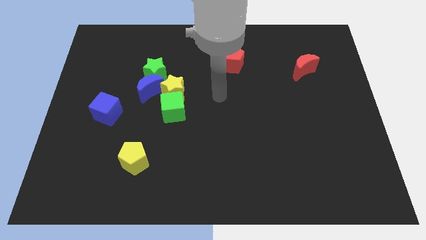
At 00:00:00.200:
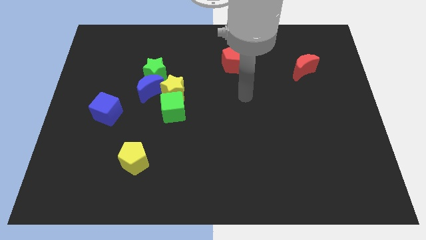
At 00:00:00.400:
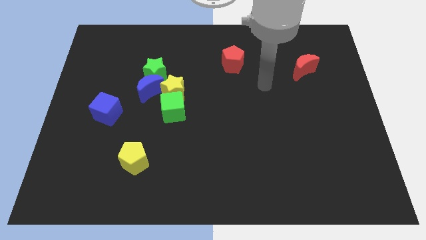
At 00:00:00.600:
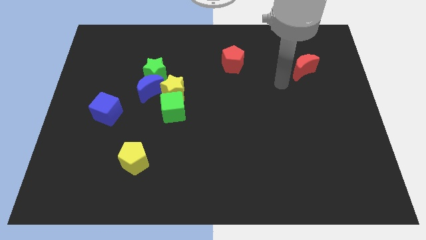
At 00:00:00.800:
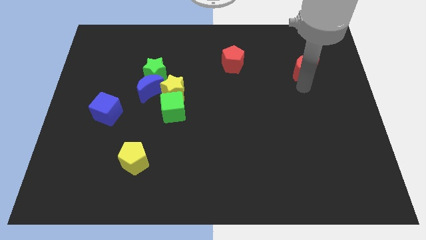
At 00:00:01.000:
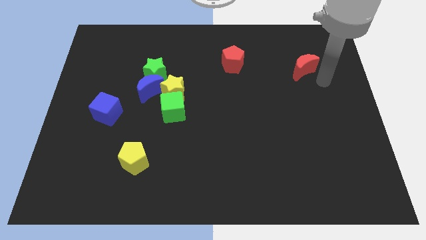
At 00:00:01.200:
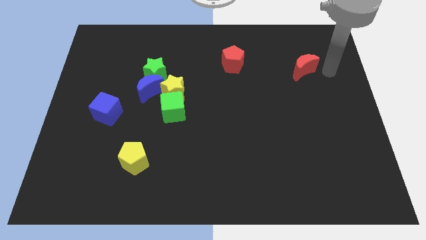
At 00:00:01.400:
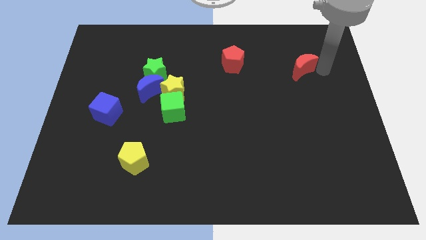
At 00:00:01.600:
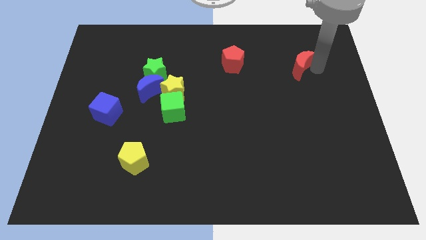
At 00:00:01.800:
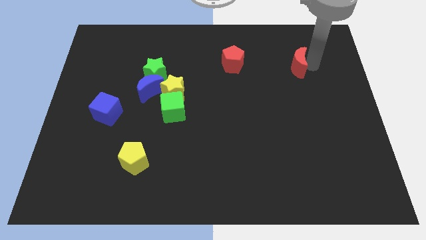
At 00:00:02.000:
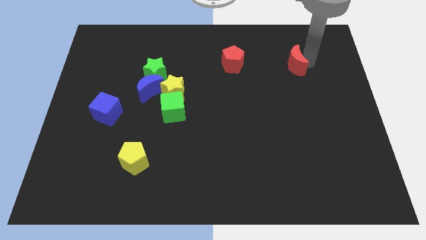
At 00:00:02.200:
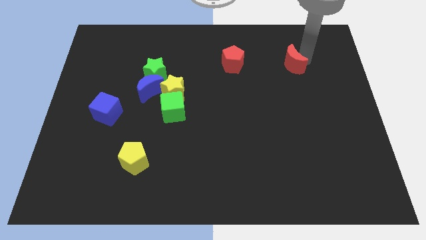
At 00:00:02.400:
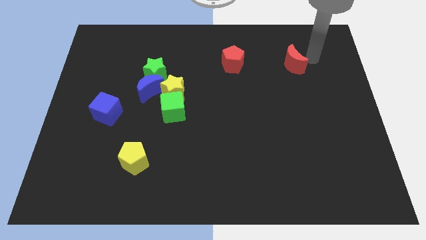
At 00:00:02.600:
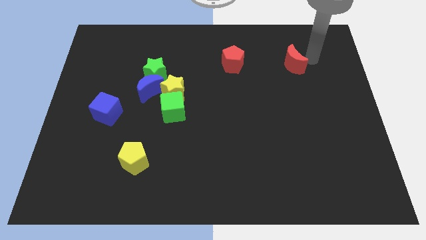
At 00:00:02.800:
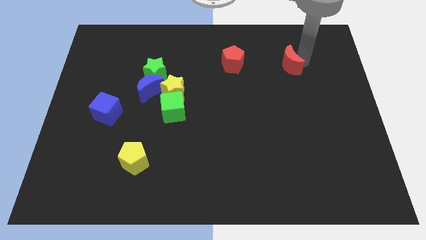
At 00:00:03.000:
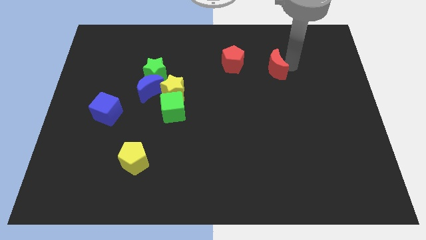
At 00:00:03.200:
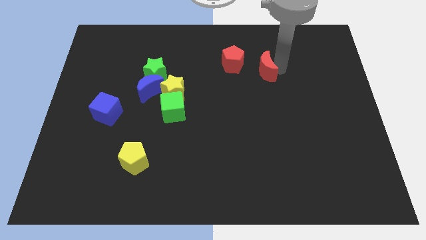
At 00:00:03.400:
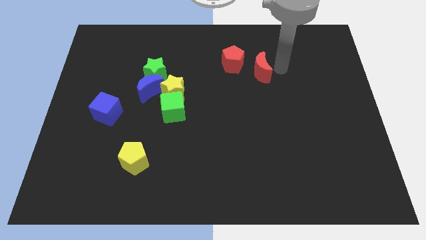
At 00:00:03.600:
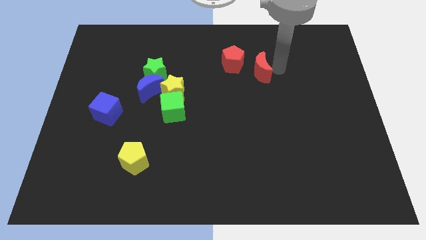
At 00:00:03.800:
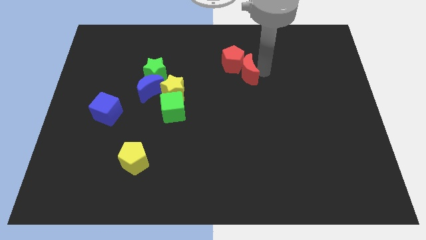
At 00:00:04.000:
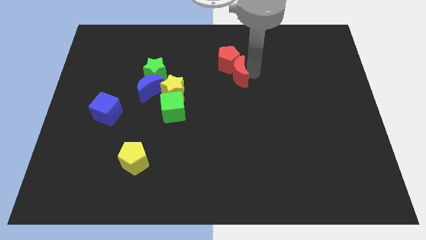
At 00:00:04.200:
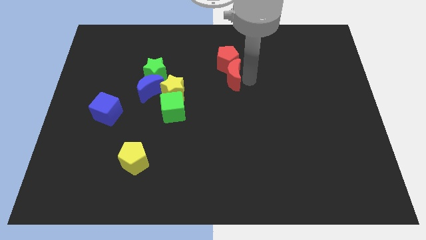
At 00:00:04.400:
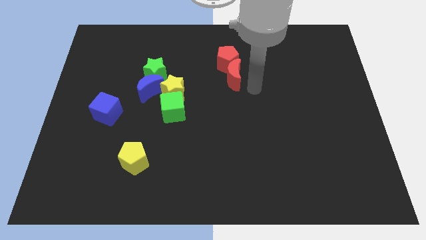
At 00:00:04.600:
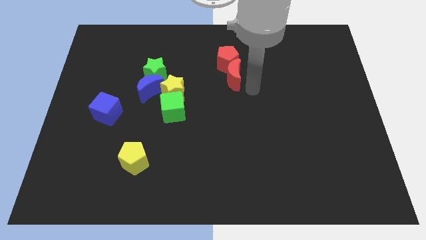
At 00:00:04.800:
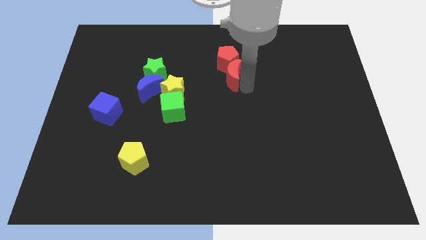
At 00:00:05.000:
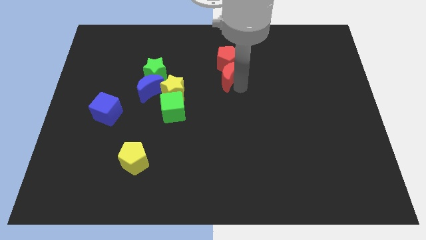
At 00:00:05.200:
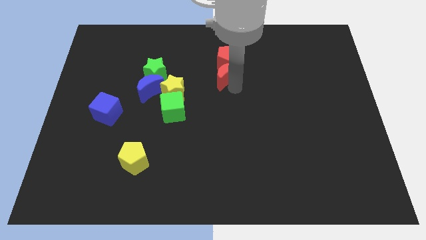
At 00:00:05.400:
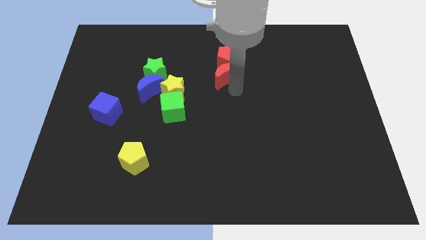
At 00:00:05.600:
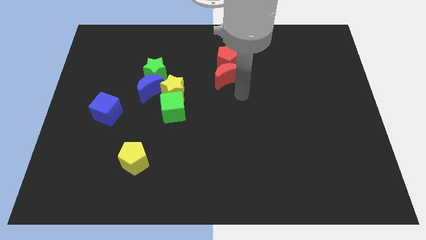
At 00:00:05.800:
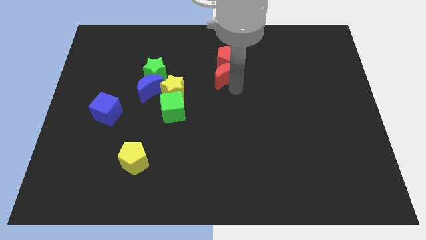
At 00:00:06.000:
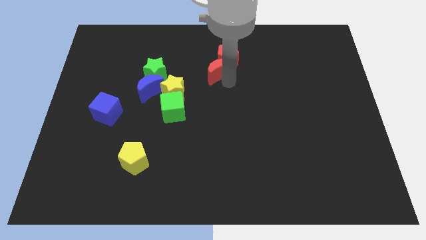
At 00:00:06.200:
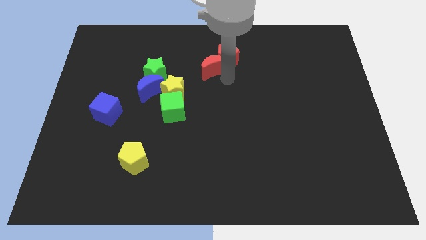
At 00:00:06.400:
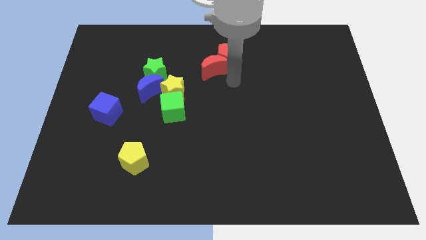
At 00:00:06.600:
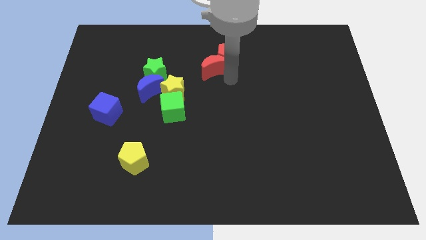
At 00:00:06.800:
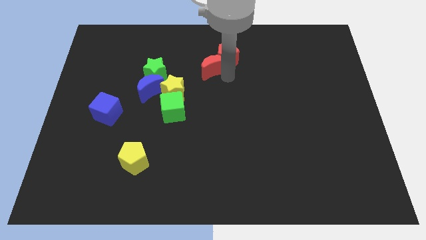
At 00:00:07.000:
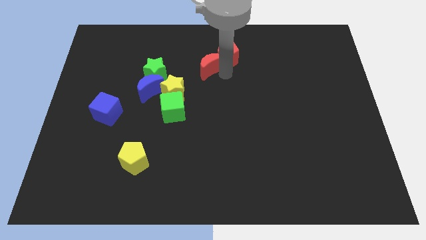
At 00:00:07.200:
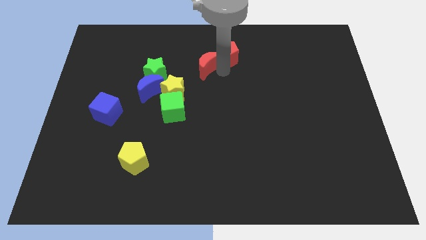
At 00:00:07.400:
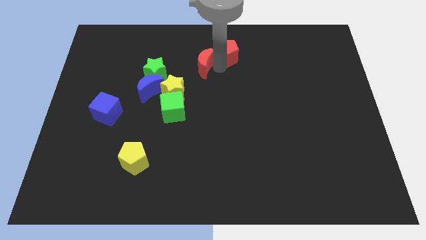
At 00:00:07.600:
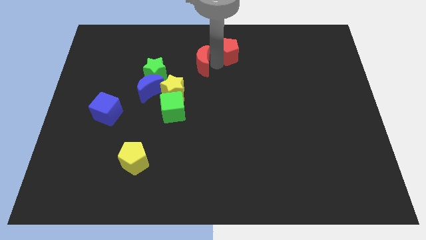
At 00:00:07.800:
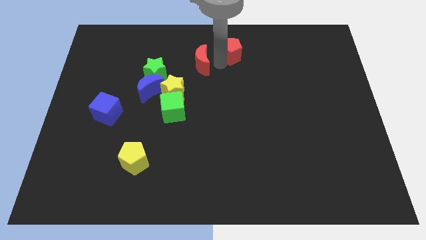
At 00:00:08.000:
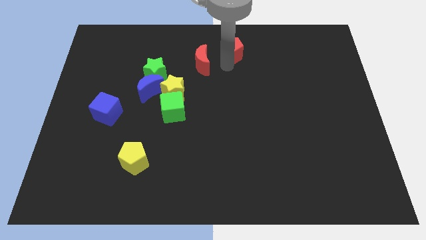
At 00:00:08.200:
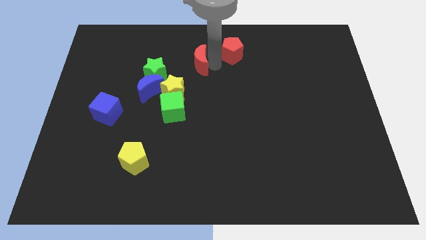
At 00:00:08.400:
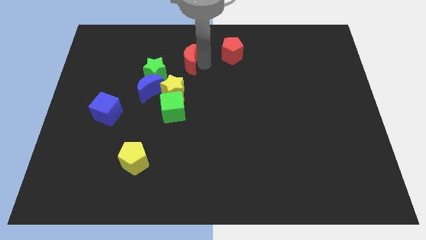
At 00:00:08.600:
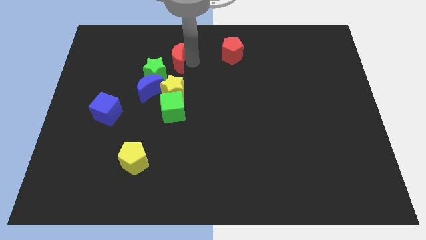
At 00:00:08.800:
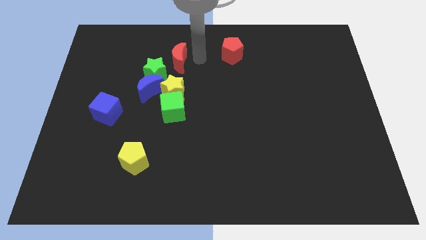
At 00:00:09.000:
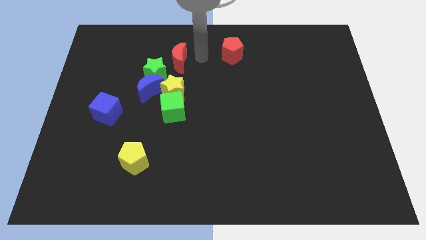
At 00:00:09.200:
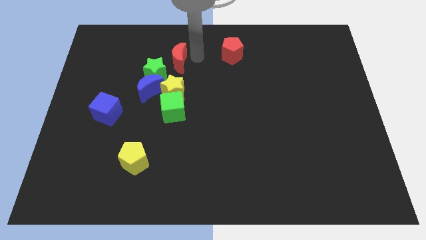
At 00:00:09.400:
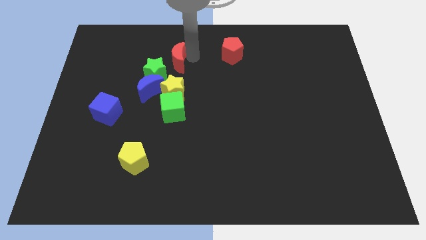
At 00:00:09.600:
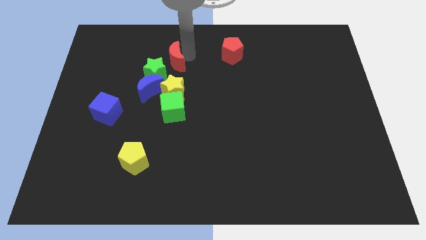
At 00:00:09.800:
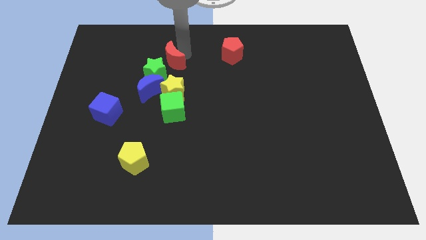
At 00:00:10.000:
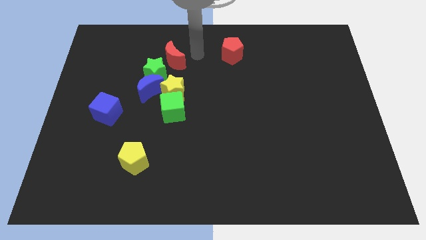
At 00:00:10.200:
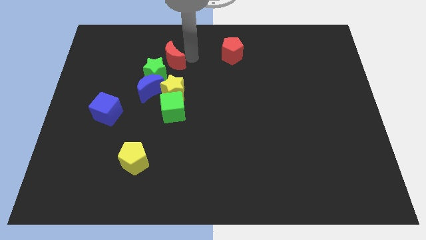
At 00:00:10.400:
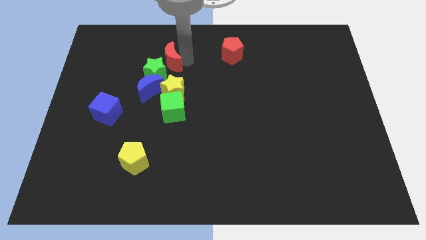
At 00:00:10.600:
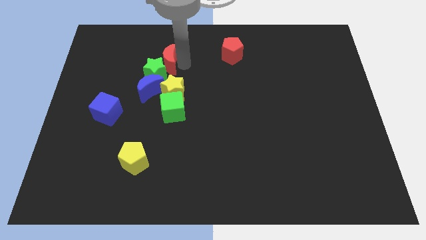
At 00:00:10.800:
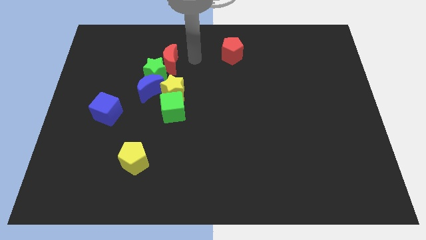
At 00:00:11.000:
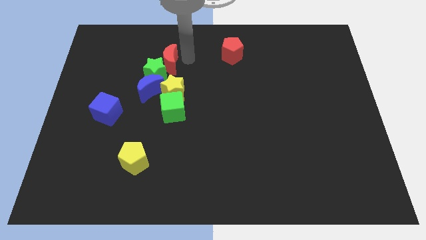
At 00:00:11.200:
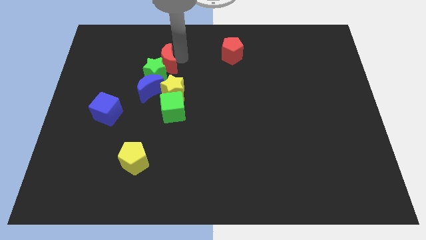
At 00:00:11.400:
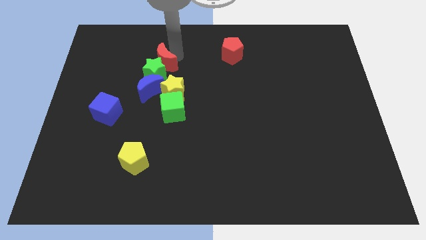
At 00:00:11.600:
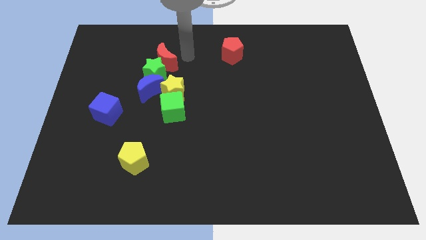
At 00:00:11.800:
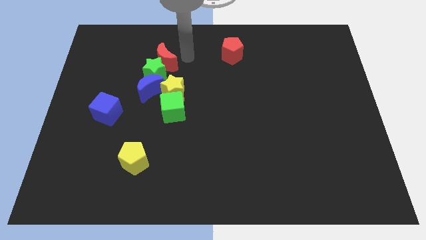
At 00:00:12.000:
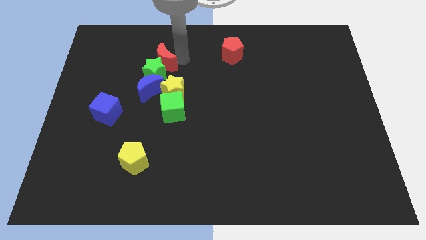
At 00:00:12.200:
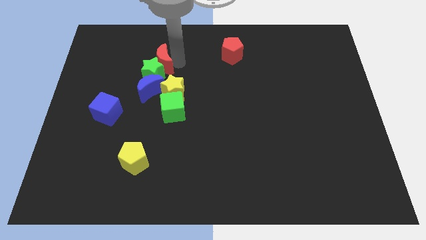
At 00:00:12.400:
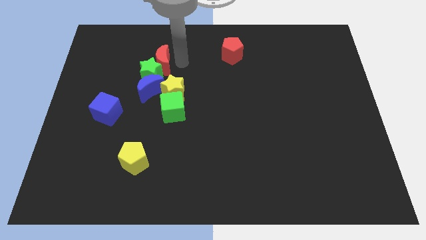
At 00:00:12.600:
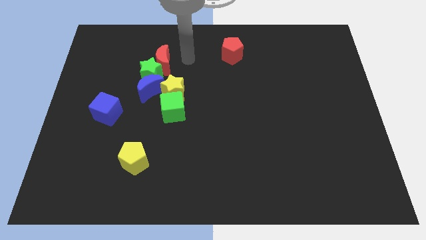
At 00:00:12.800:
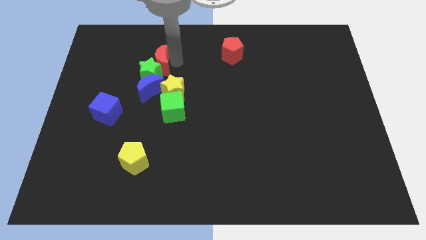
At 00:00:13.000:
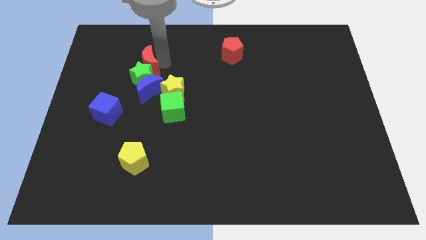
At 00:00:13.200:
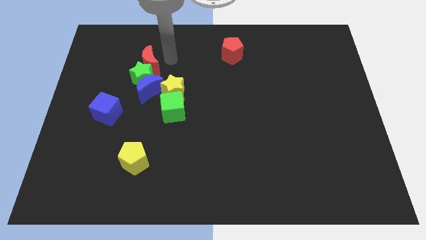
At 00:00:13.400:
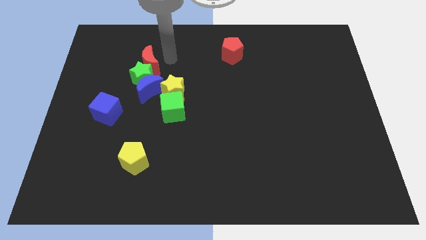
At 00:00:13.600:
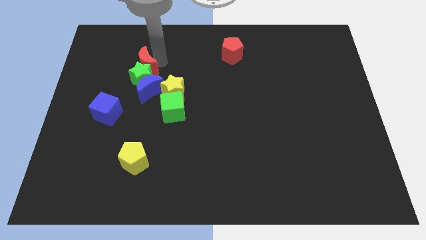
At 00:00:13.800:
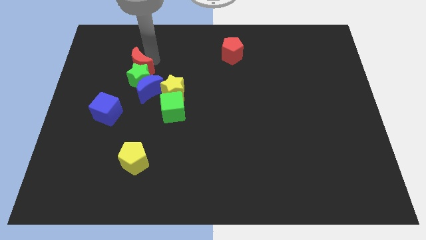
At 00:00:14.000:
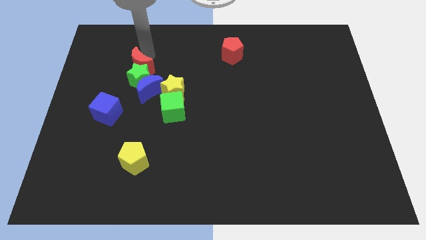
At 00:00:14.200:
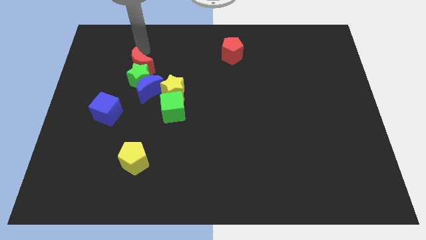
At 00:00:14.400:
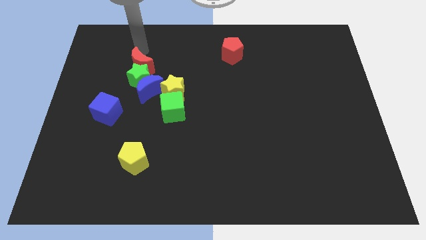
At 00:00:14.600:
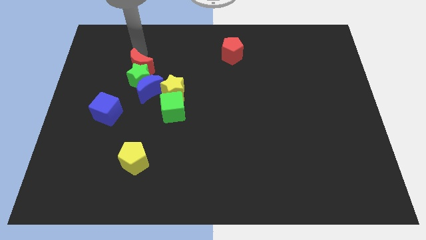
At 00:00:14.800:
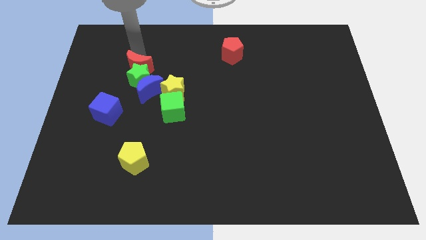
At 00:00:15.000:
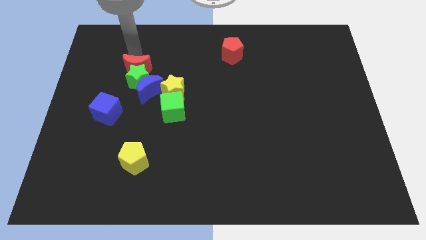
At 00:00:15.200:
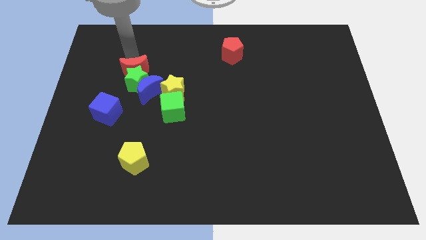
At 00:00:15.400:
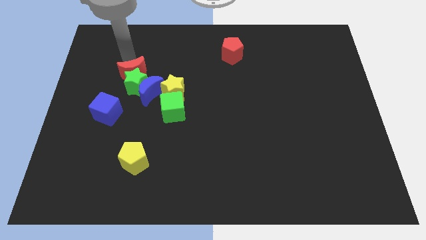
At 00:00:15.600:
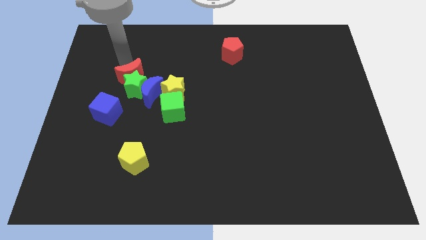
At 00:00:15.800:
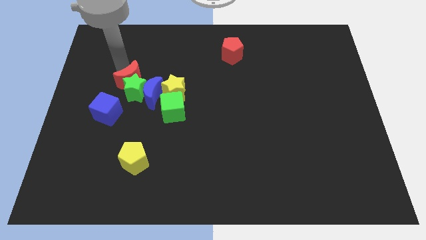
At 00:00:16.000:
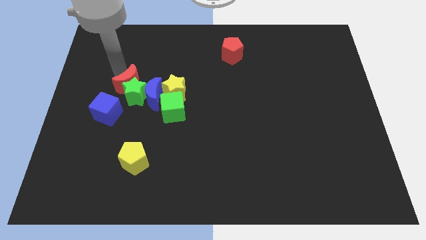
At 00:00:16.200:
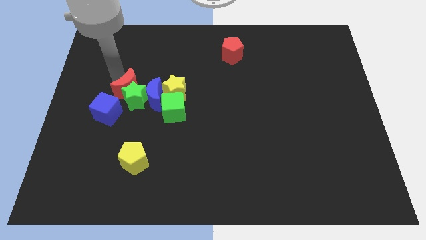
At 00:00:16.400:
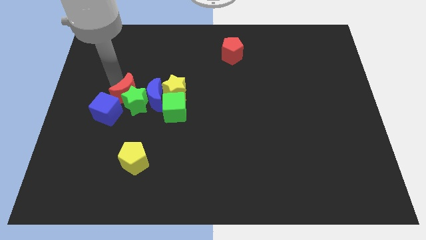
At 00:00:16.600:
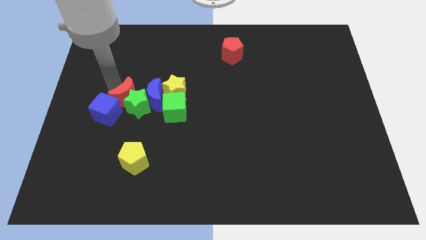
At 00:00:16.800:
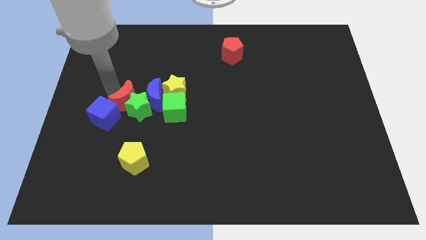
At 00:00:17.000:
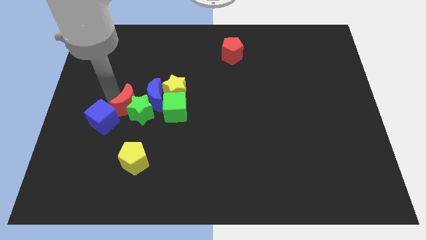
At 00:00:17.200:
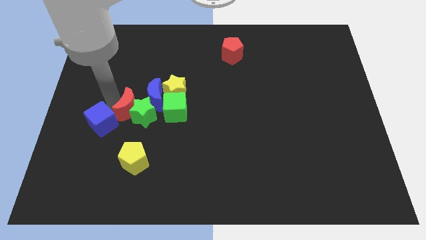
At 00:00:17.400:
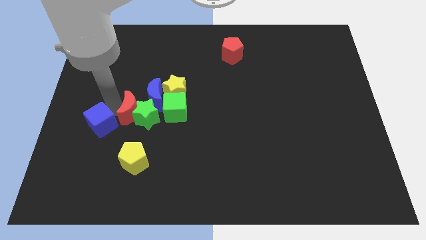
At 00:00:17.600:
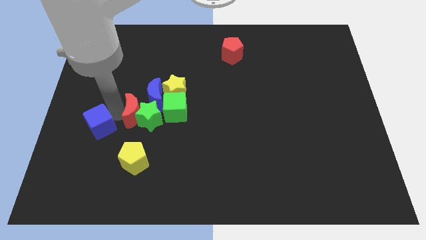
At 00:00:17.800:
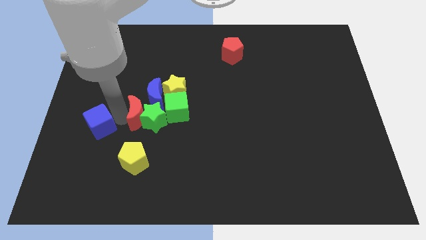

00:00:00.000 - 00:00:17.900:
push the red moon to the blue moon
